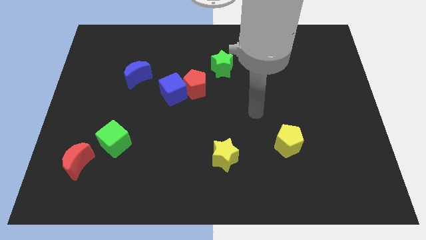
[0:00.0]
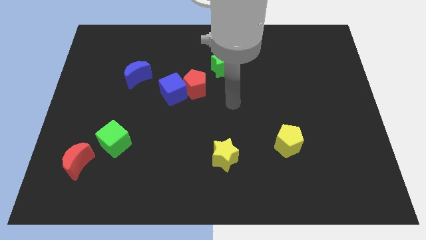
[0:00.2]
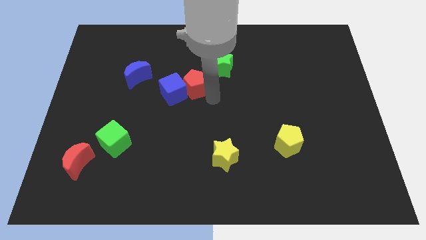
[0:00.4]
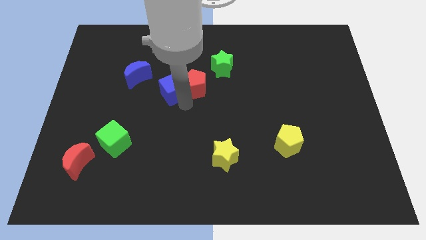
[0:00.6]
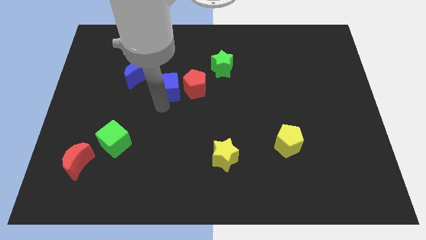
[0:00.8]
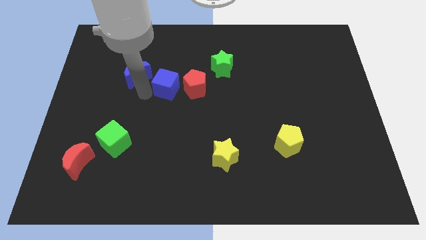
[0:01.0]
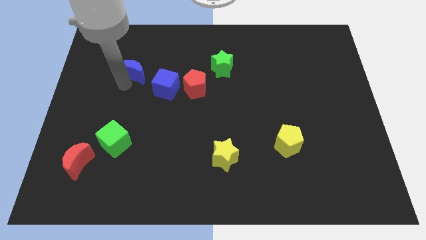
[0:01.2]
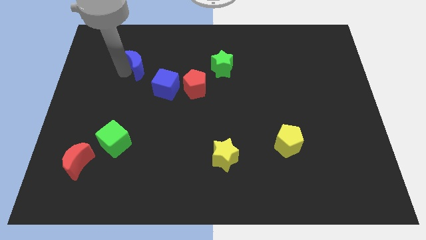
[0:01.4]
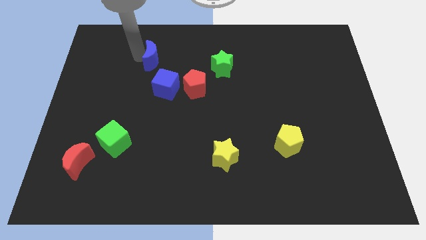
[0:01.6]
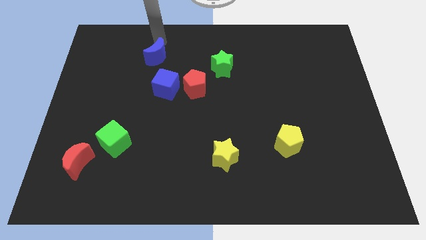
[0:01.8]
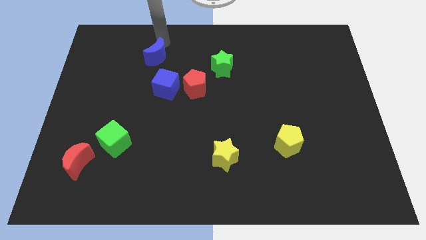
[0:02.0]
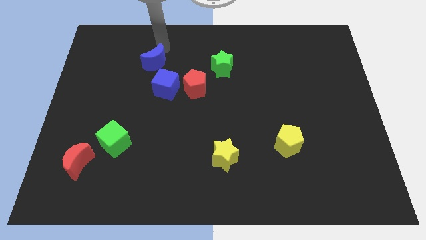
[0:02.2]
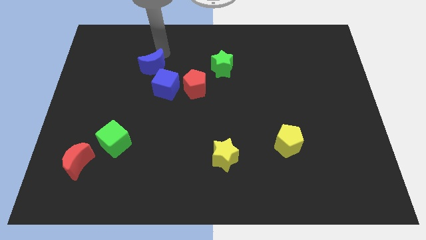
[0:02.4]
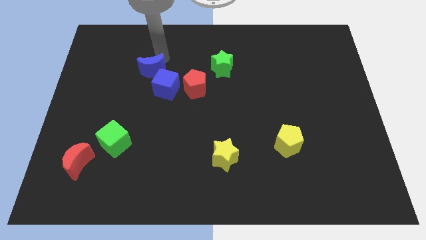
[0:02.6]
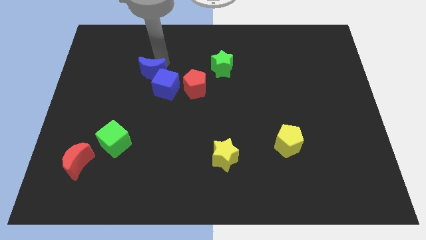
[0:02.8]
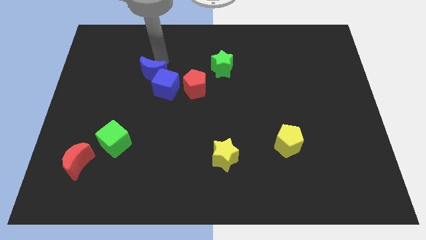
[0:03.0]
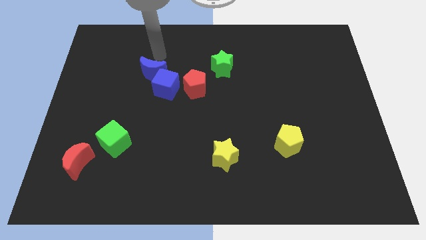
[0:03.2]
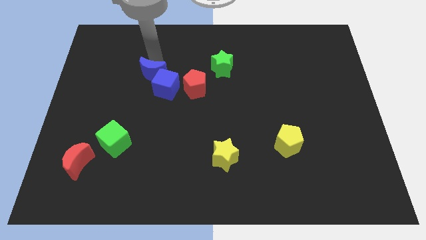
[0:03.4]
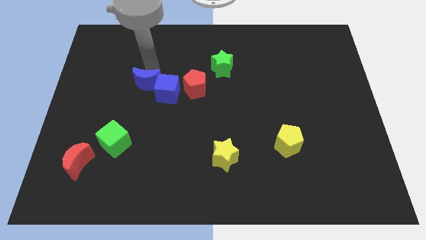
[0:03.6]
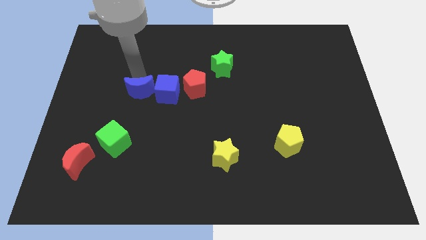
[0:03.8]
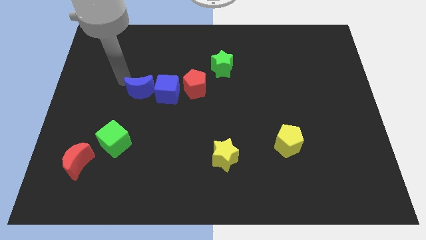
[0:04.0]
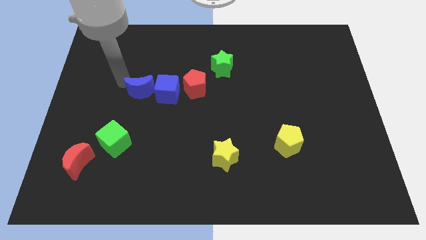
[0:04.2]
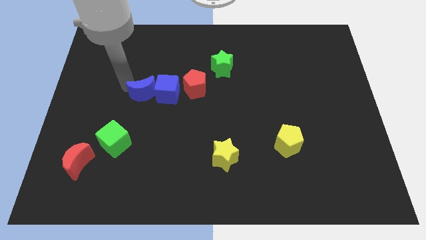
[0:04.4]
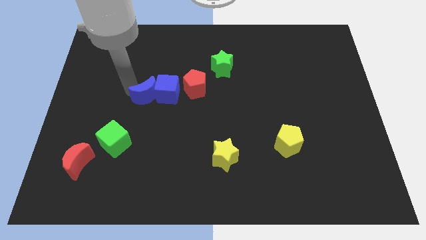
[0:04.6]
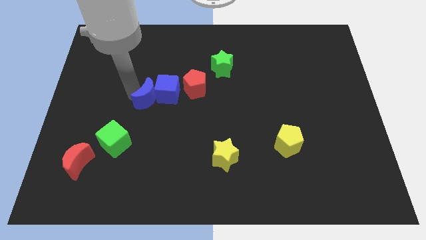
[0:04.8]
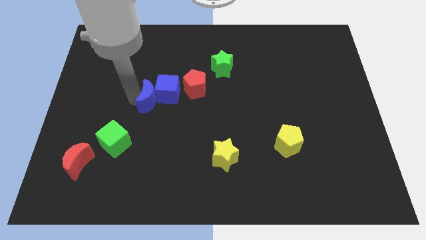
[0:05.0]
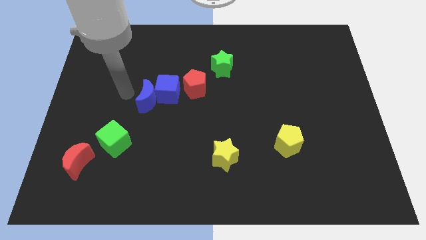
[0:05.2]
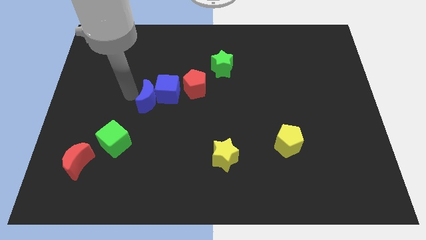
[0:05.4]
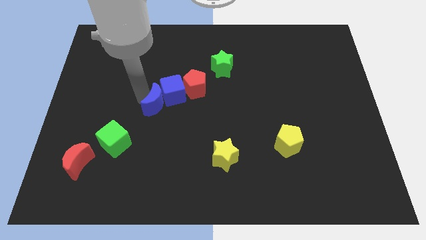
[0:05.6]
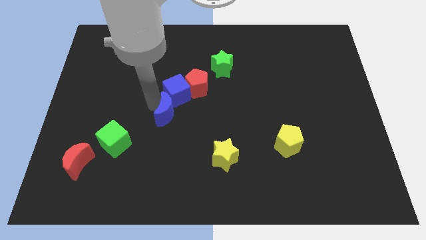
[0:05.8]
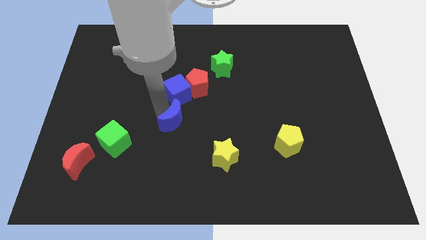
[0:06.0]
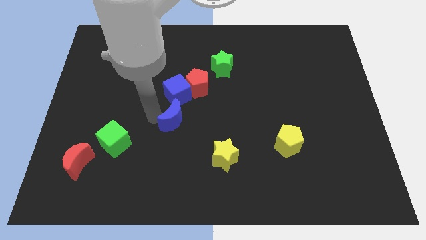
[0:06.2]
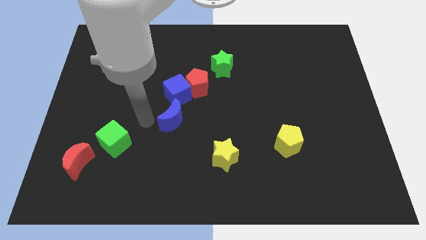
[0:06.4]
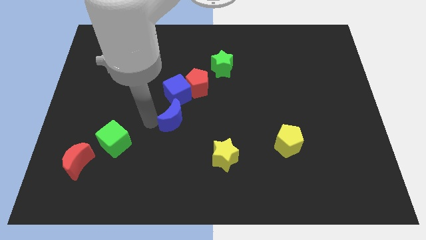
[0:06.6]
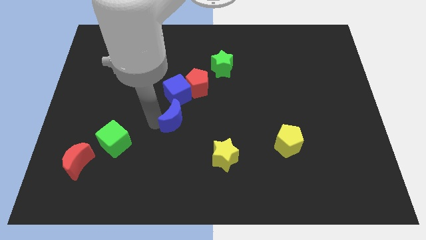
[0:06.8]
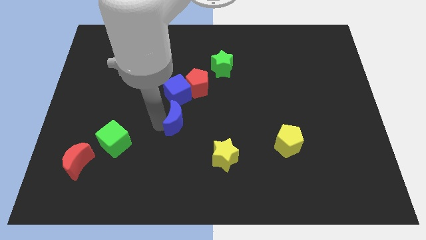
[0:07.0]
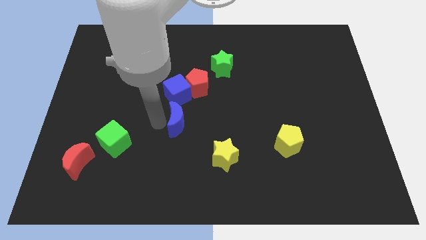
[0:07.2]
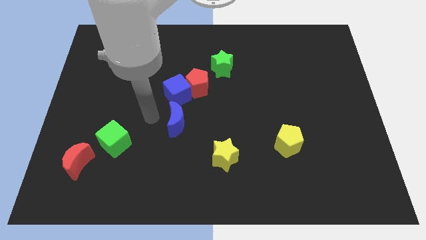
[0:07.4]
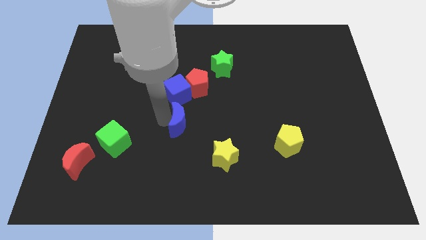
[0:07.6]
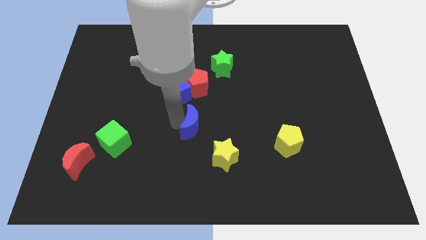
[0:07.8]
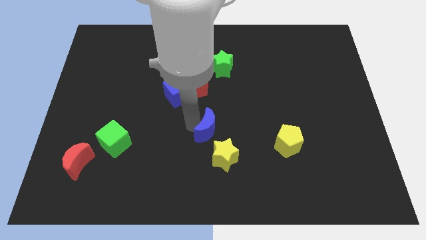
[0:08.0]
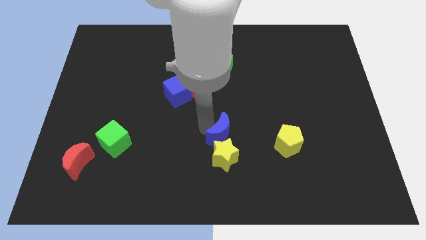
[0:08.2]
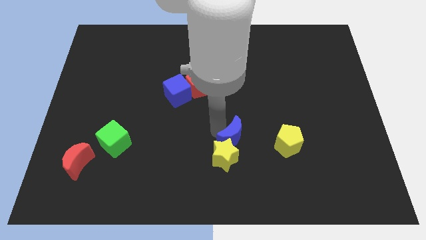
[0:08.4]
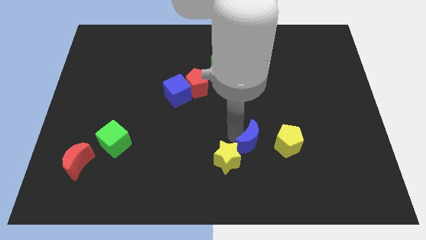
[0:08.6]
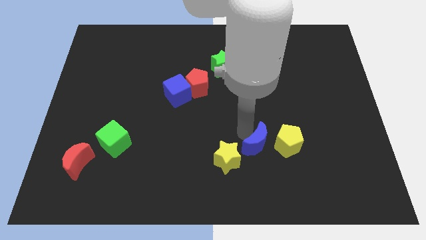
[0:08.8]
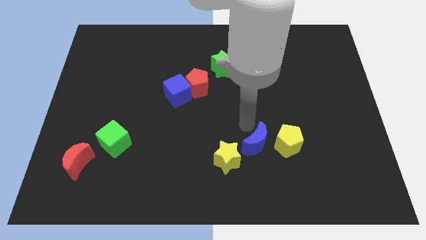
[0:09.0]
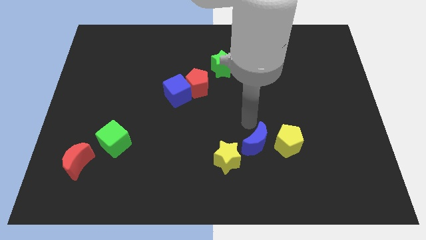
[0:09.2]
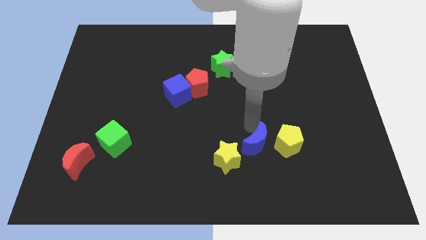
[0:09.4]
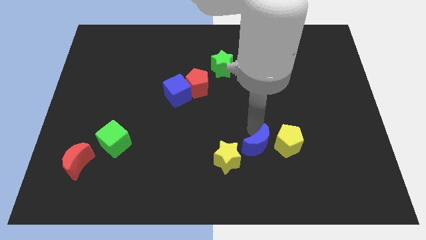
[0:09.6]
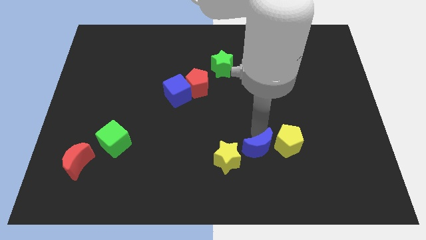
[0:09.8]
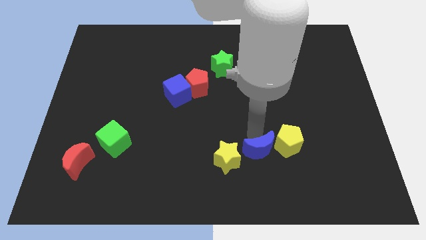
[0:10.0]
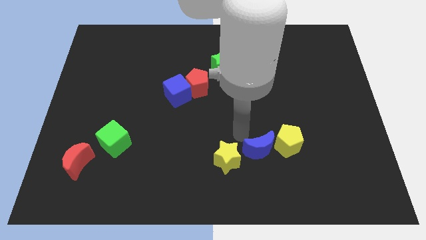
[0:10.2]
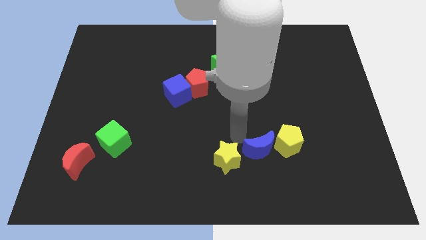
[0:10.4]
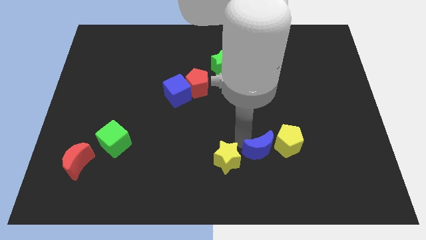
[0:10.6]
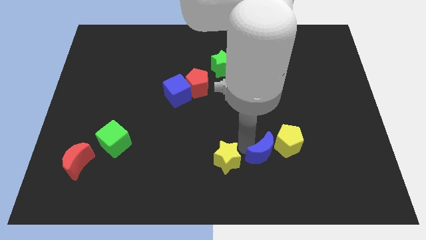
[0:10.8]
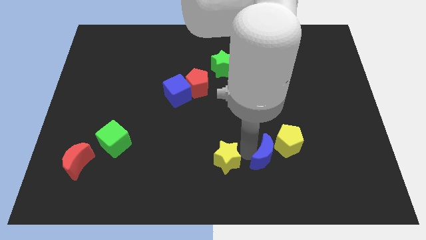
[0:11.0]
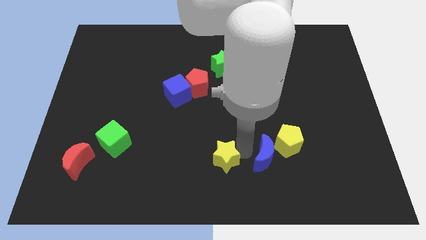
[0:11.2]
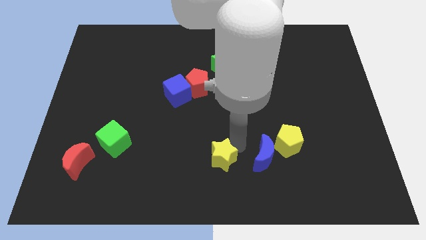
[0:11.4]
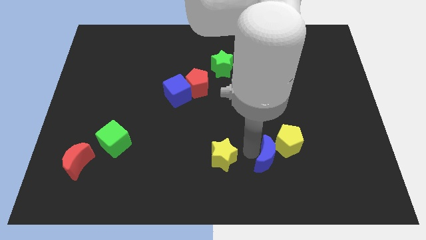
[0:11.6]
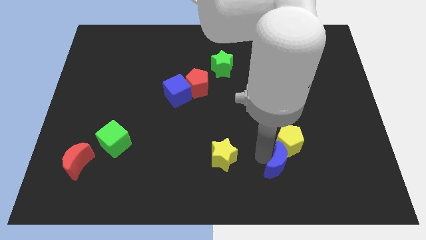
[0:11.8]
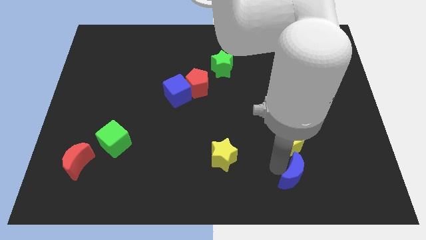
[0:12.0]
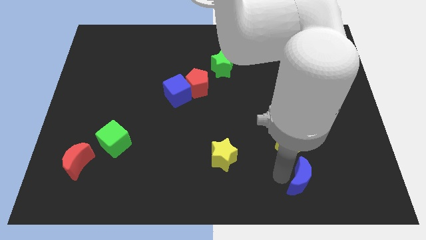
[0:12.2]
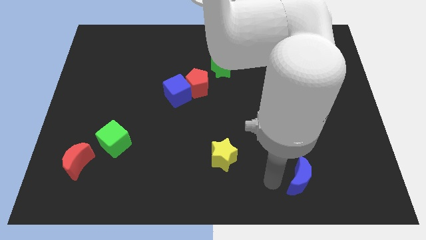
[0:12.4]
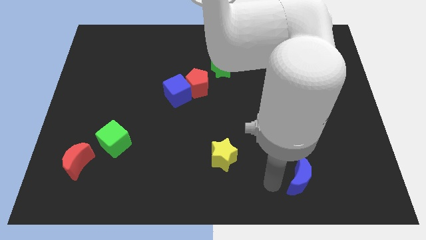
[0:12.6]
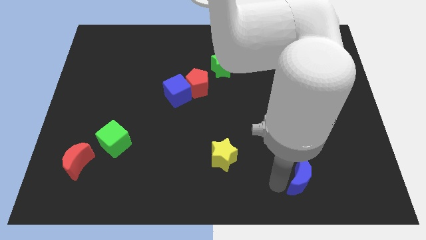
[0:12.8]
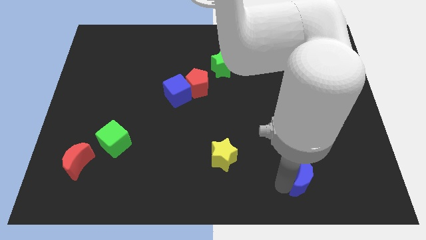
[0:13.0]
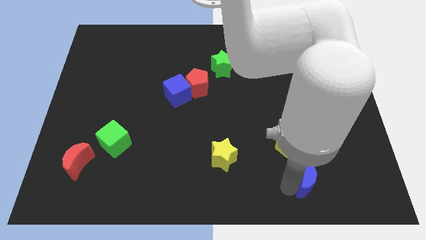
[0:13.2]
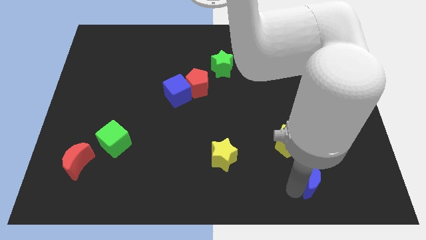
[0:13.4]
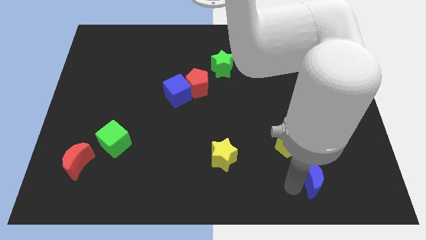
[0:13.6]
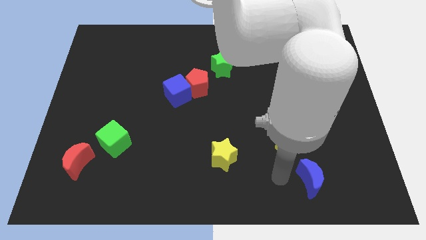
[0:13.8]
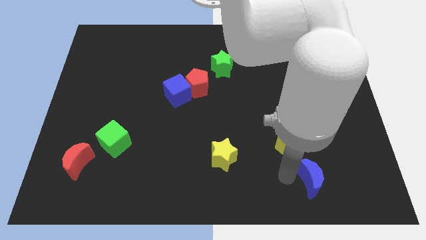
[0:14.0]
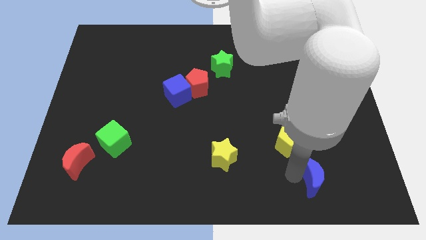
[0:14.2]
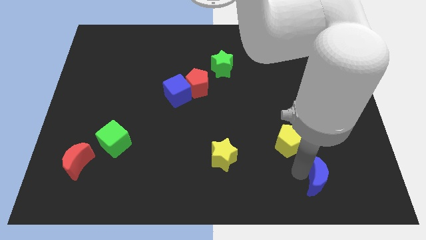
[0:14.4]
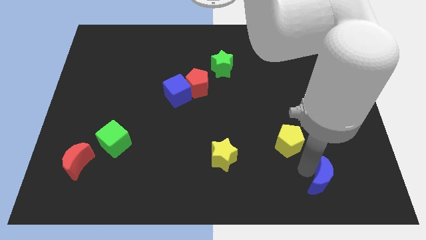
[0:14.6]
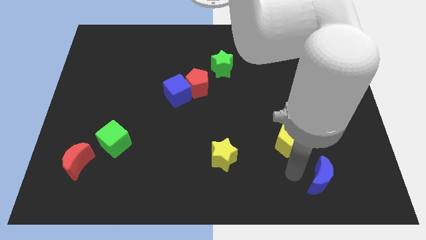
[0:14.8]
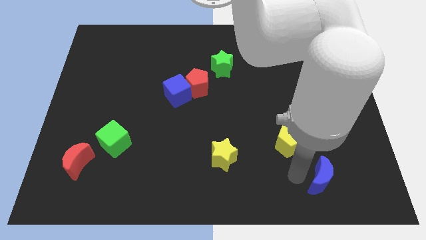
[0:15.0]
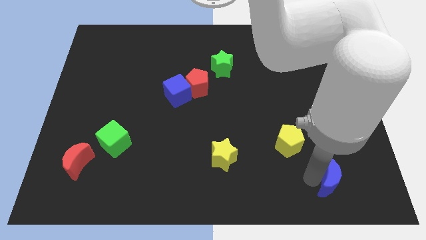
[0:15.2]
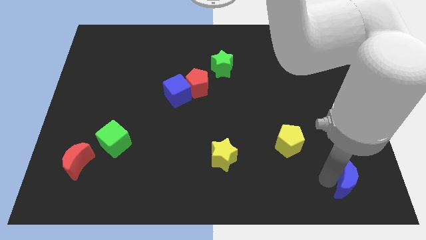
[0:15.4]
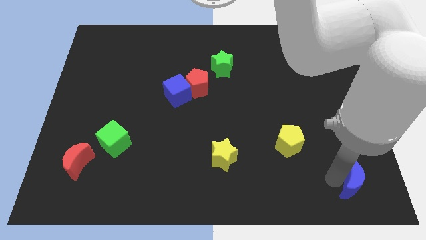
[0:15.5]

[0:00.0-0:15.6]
push the blue moon to the bottom right
